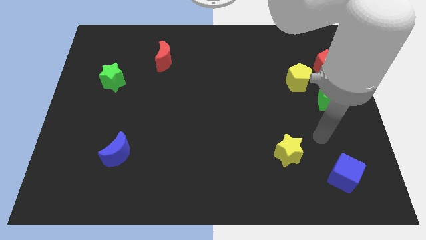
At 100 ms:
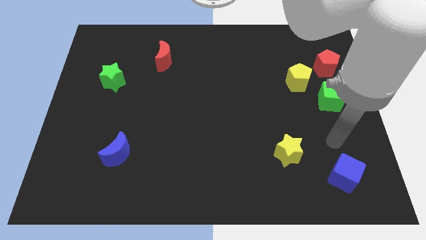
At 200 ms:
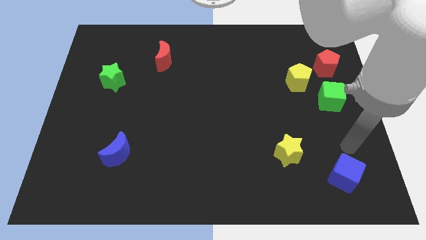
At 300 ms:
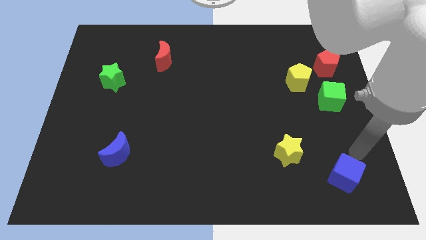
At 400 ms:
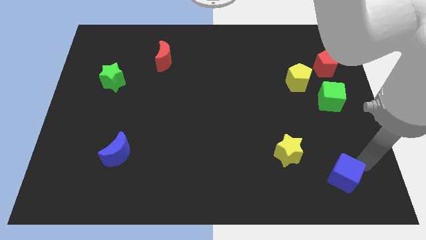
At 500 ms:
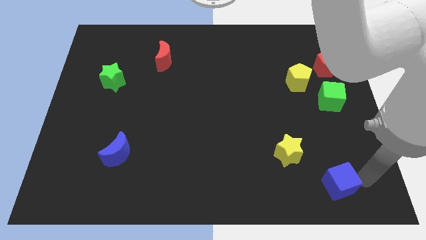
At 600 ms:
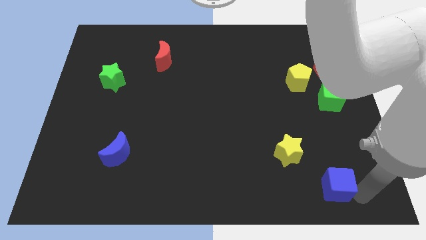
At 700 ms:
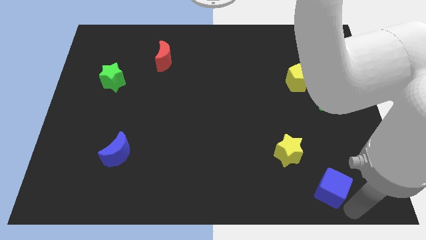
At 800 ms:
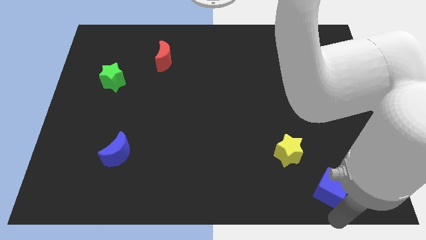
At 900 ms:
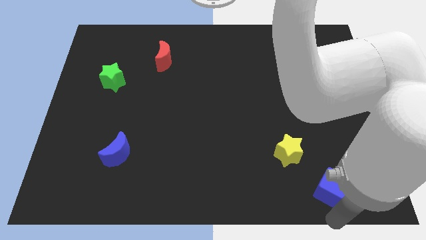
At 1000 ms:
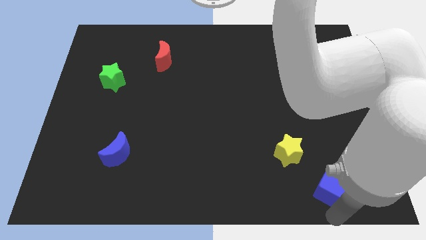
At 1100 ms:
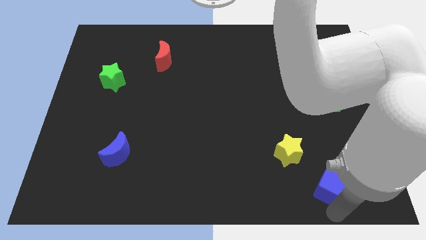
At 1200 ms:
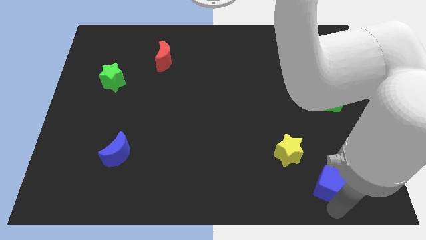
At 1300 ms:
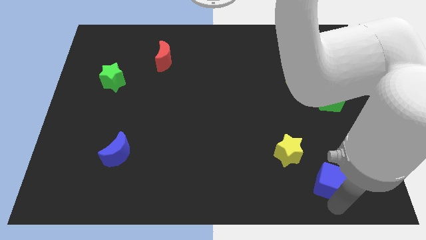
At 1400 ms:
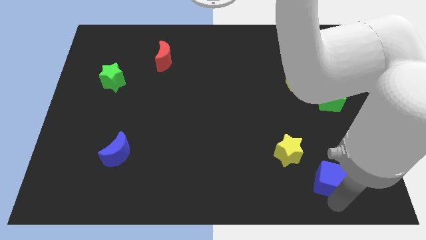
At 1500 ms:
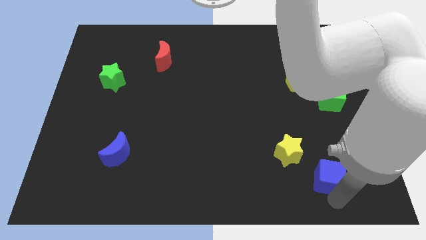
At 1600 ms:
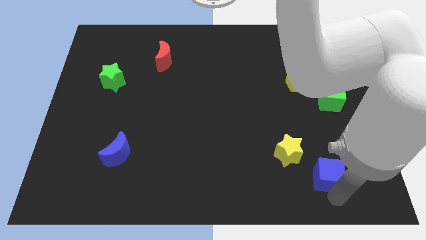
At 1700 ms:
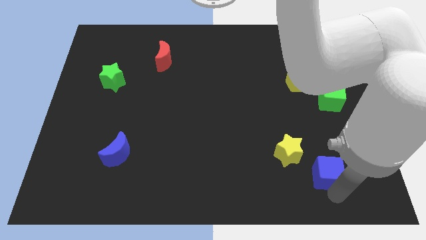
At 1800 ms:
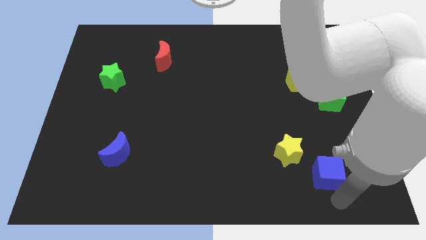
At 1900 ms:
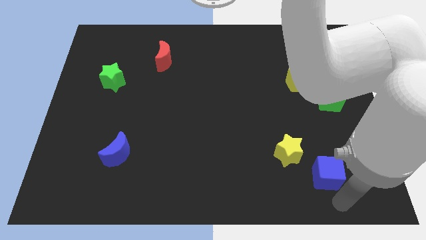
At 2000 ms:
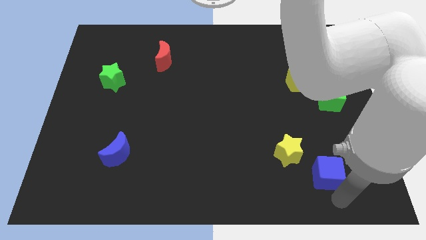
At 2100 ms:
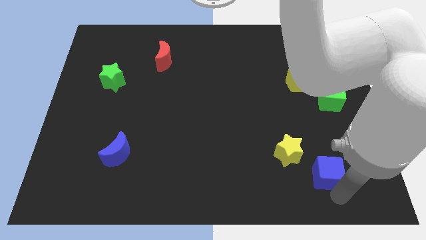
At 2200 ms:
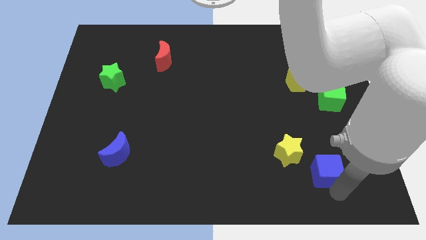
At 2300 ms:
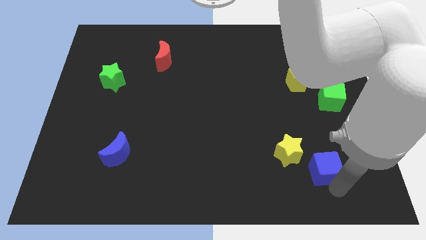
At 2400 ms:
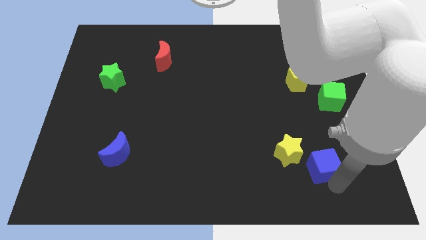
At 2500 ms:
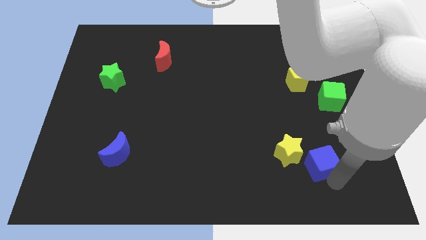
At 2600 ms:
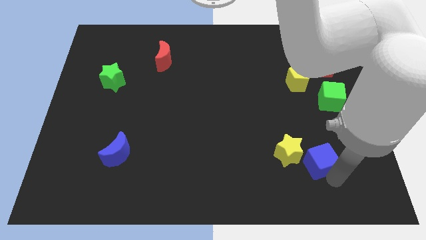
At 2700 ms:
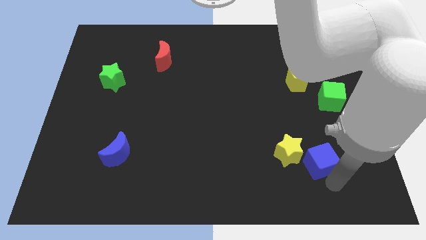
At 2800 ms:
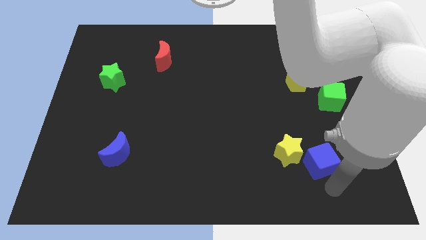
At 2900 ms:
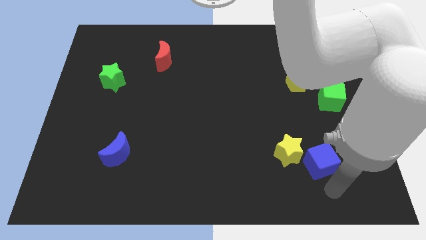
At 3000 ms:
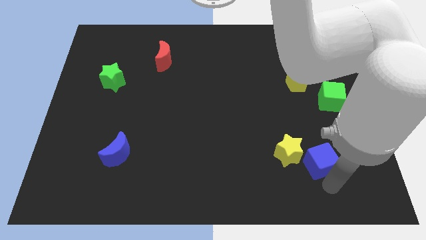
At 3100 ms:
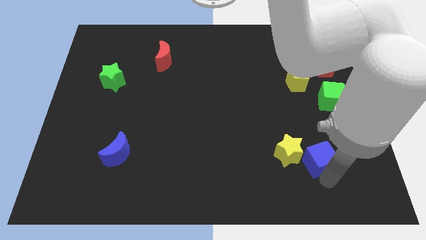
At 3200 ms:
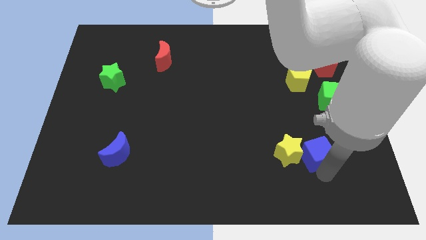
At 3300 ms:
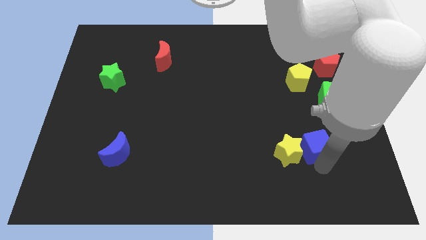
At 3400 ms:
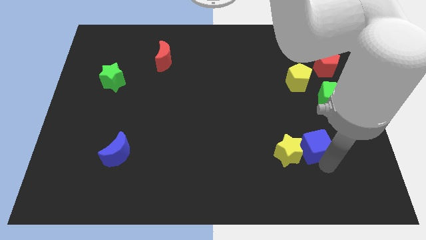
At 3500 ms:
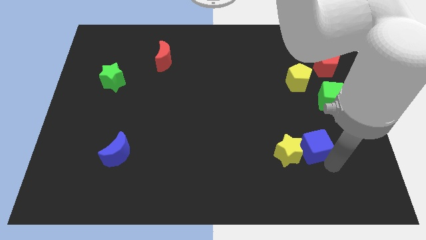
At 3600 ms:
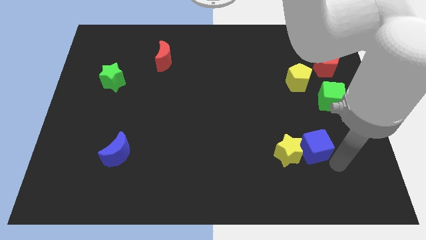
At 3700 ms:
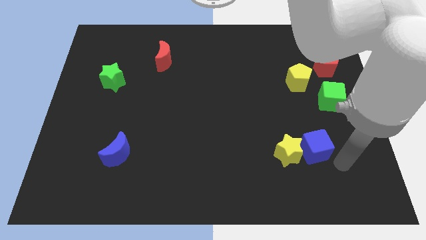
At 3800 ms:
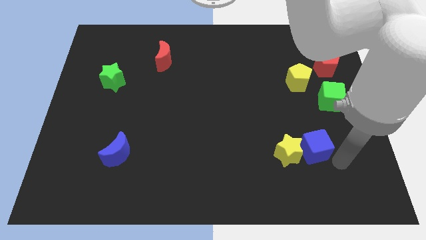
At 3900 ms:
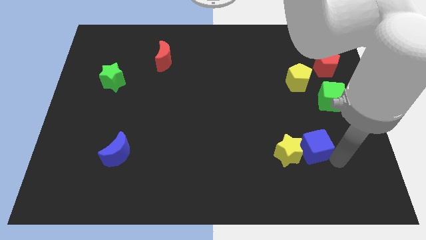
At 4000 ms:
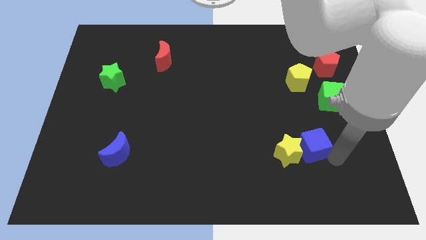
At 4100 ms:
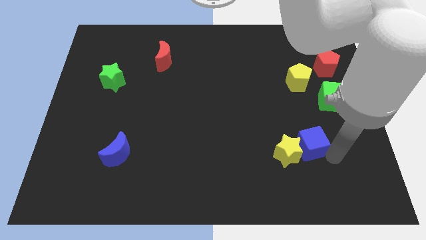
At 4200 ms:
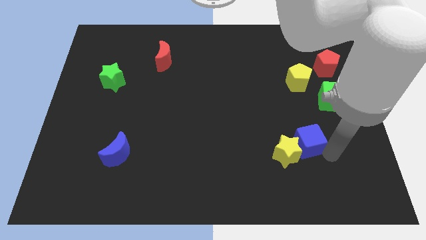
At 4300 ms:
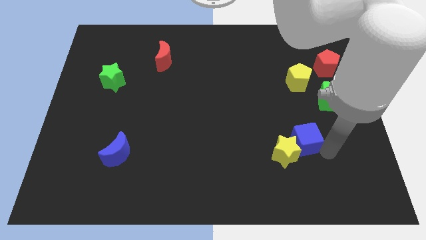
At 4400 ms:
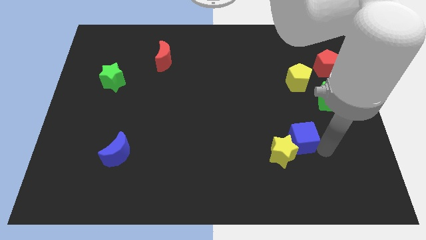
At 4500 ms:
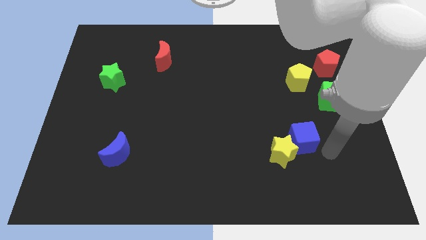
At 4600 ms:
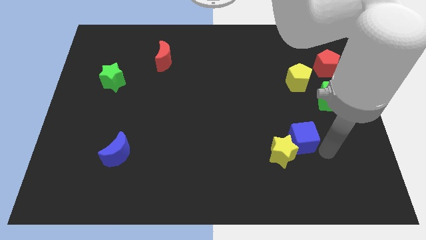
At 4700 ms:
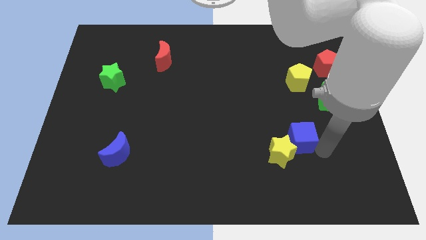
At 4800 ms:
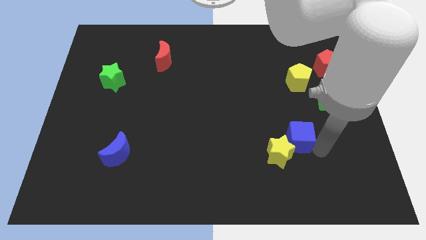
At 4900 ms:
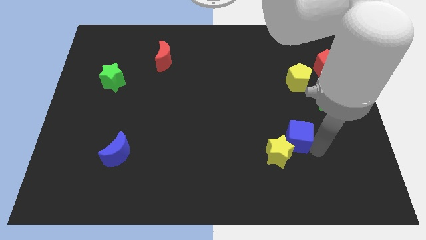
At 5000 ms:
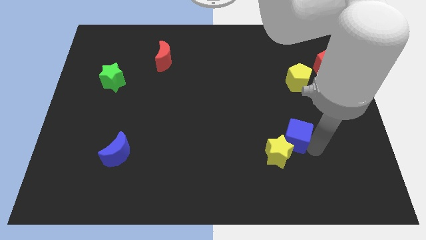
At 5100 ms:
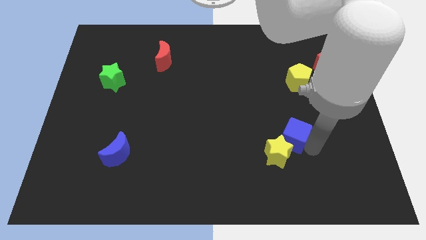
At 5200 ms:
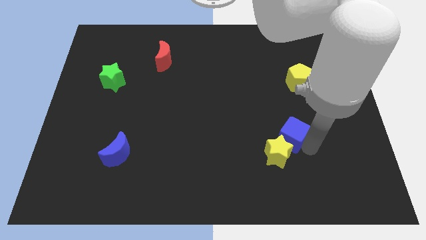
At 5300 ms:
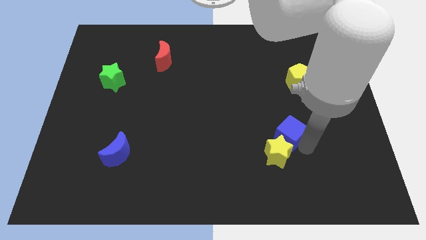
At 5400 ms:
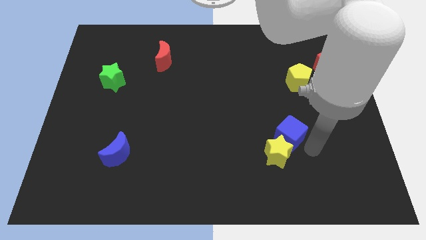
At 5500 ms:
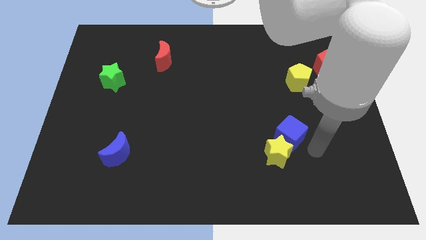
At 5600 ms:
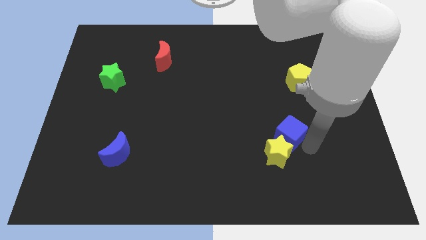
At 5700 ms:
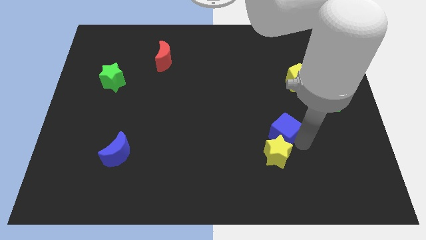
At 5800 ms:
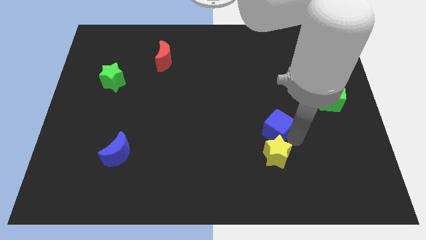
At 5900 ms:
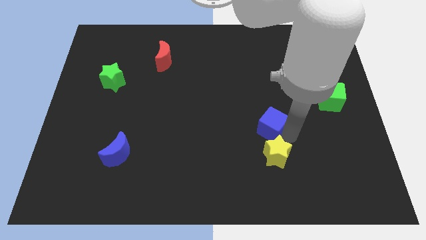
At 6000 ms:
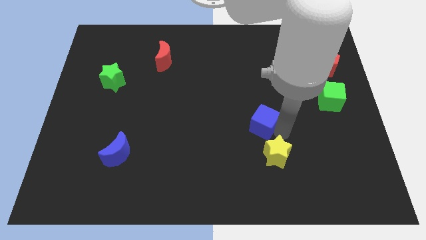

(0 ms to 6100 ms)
slide the blue cube diagonally upwards and to the left

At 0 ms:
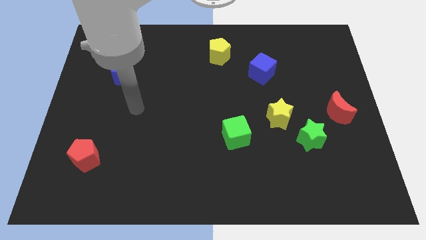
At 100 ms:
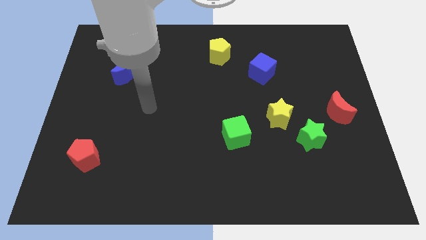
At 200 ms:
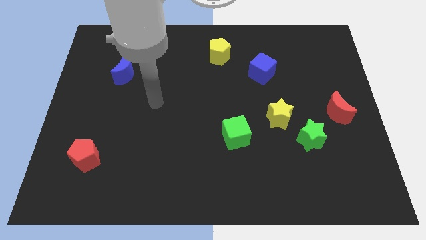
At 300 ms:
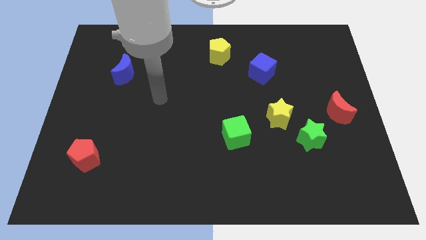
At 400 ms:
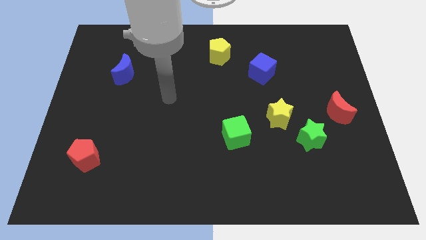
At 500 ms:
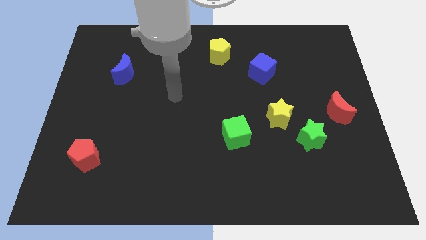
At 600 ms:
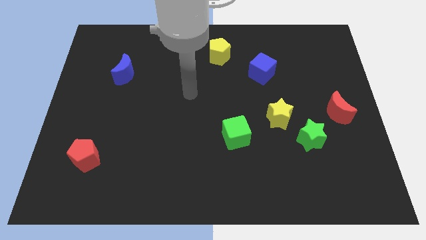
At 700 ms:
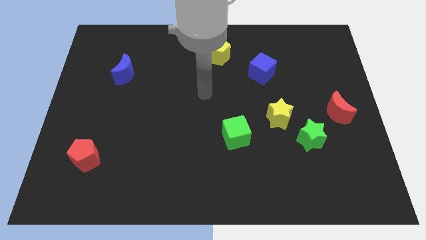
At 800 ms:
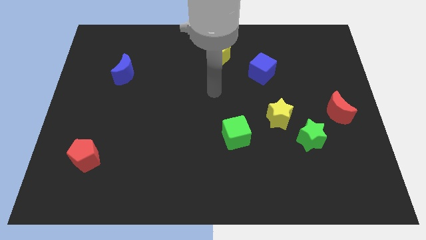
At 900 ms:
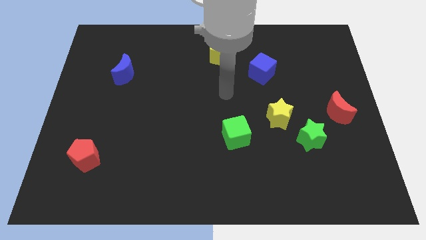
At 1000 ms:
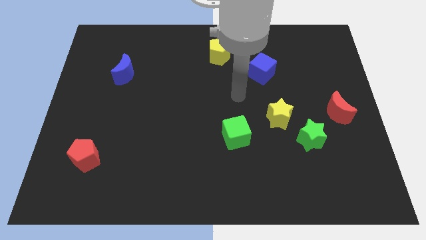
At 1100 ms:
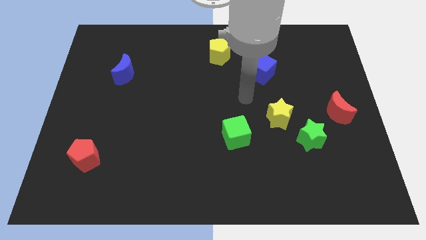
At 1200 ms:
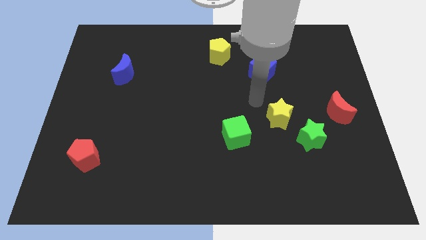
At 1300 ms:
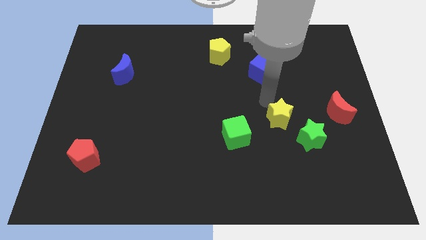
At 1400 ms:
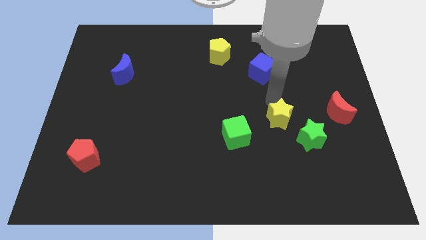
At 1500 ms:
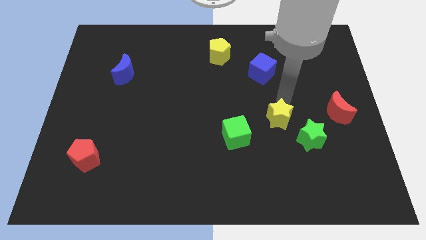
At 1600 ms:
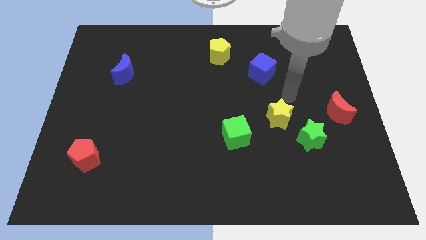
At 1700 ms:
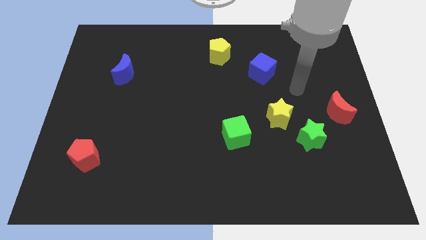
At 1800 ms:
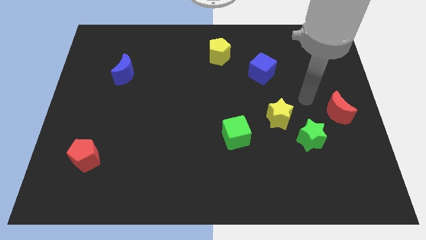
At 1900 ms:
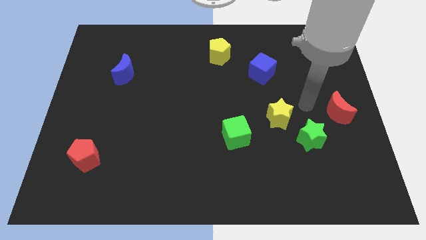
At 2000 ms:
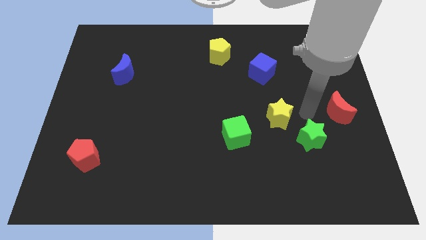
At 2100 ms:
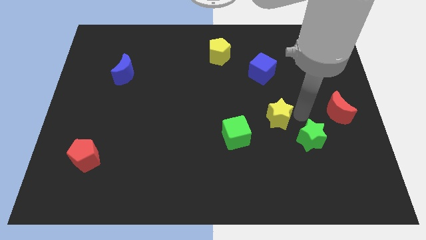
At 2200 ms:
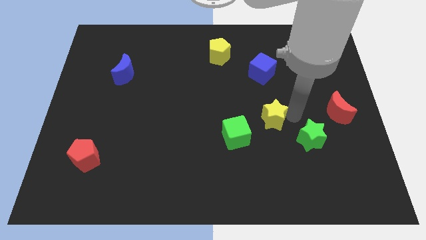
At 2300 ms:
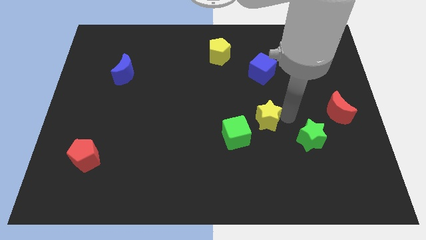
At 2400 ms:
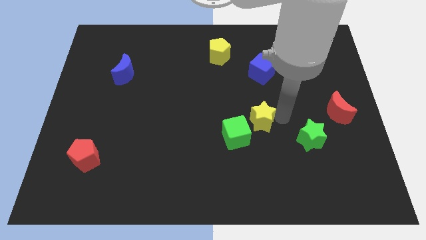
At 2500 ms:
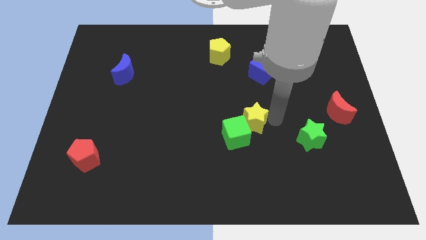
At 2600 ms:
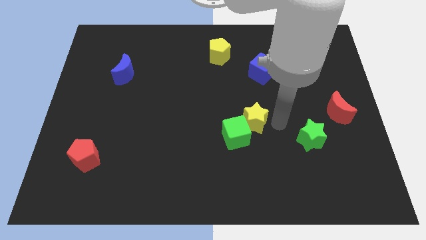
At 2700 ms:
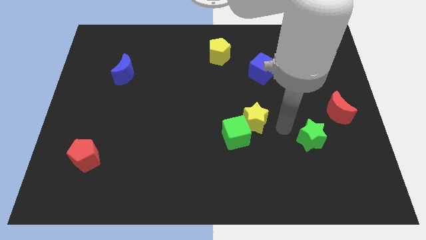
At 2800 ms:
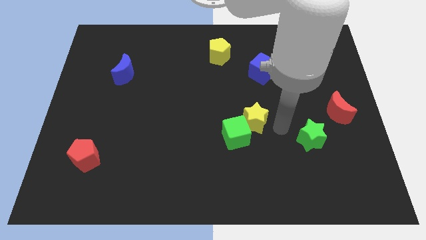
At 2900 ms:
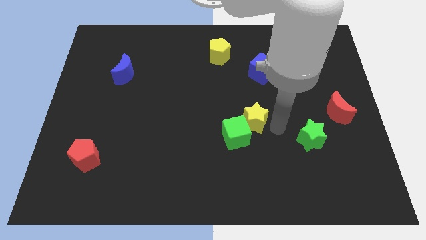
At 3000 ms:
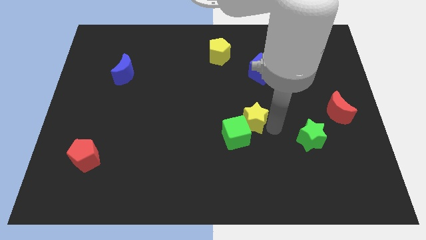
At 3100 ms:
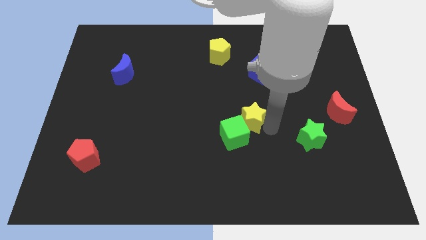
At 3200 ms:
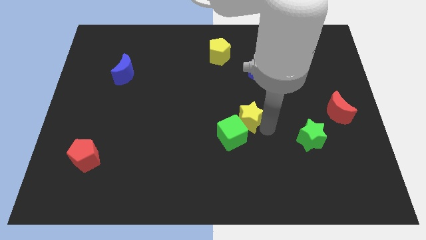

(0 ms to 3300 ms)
push the yellow star a little left
